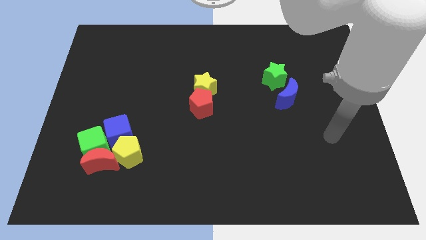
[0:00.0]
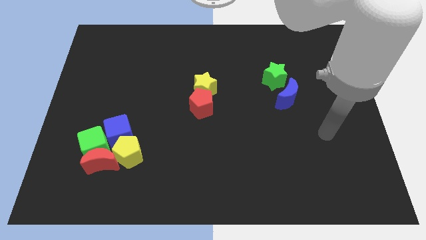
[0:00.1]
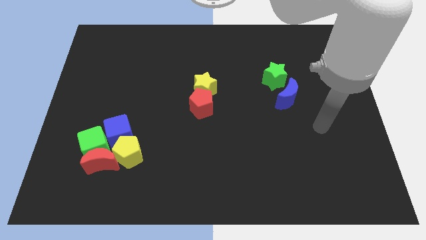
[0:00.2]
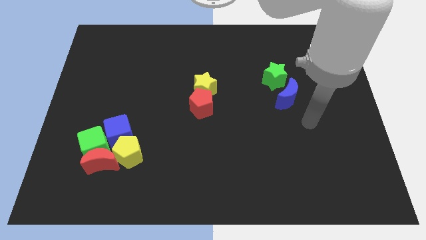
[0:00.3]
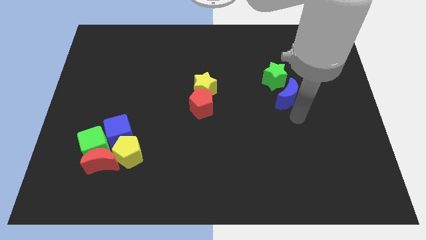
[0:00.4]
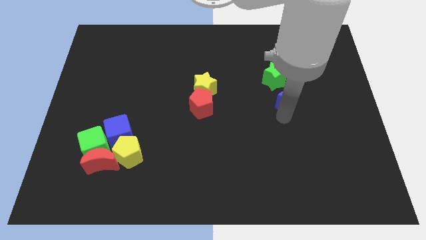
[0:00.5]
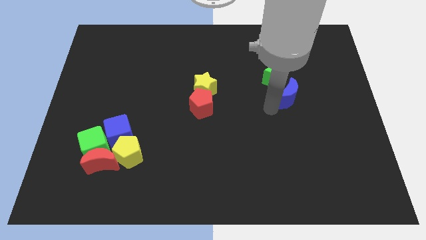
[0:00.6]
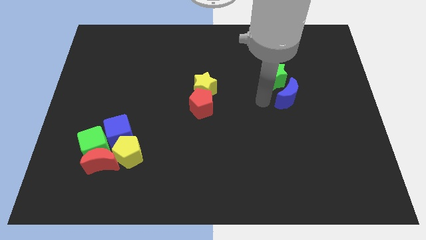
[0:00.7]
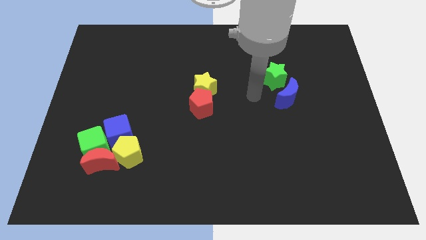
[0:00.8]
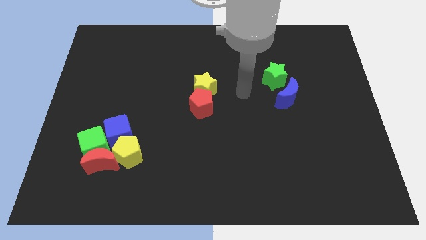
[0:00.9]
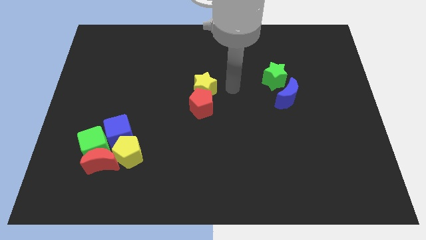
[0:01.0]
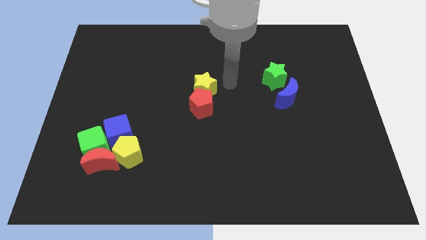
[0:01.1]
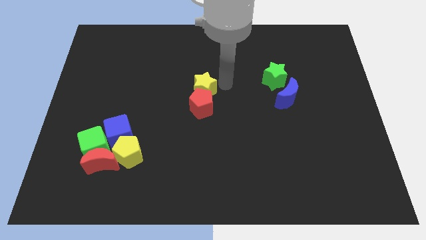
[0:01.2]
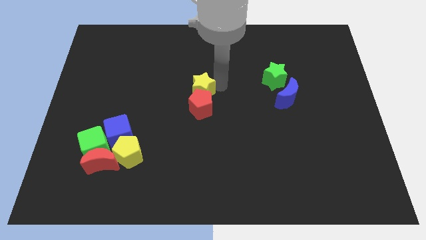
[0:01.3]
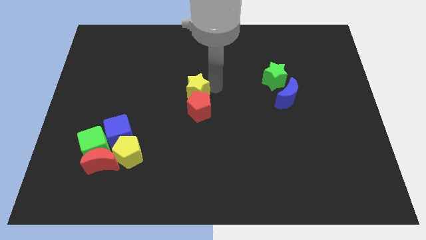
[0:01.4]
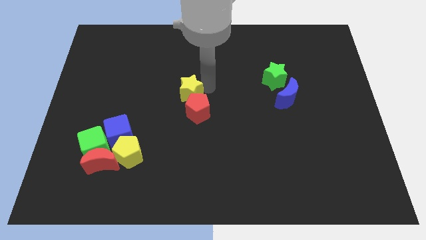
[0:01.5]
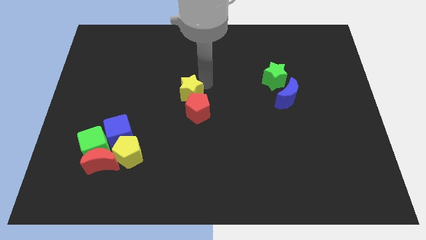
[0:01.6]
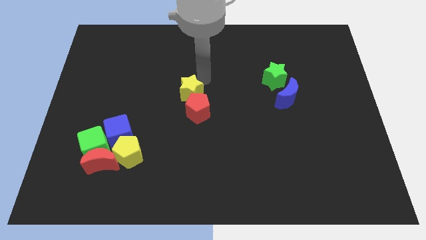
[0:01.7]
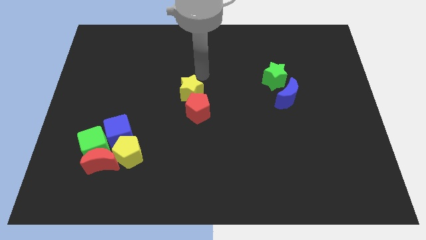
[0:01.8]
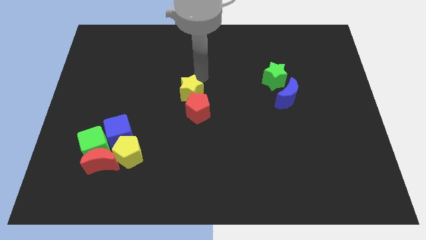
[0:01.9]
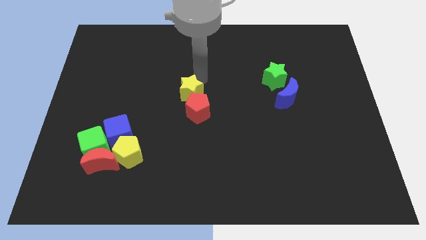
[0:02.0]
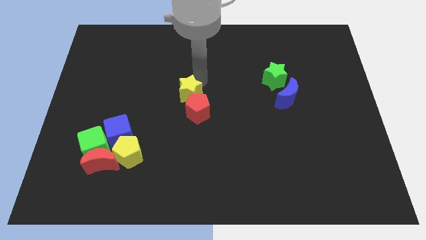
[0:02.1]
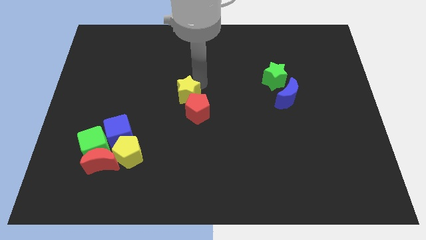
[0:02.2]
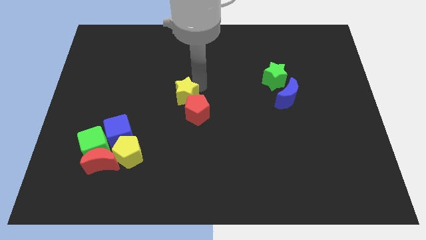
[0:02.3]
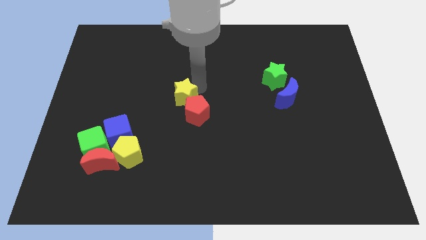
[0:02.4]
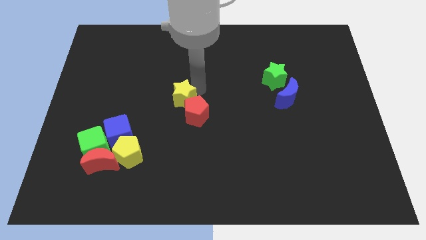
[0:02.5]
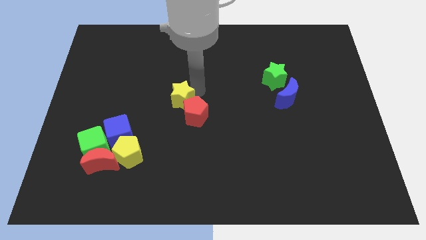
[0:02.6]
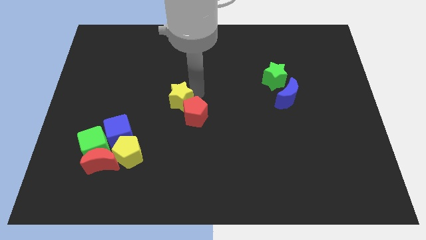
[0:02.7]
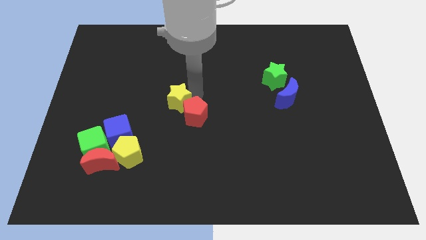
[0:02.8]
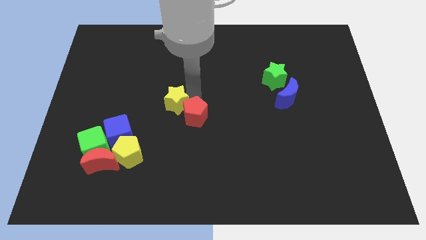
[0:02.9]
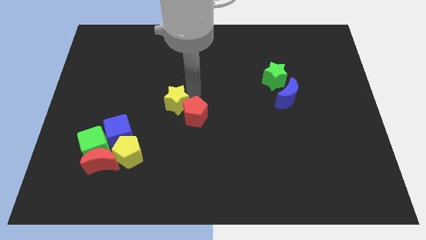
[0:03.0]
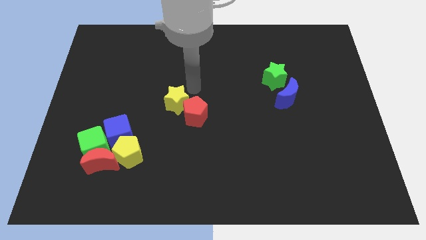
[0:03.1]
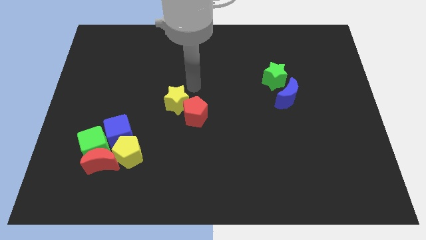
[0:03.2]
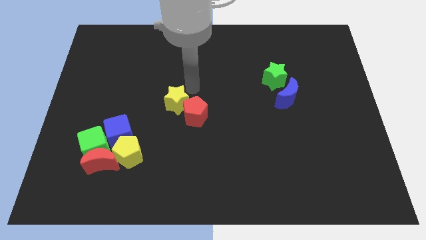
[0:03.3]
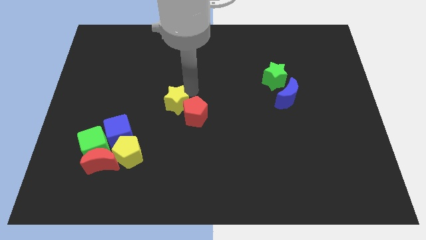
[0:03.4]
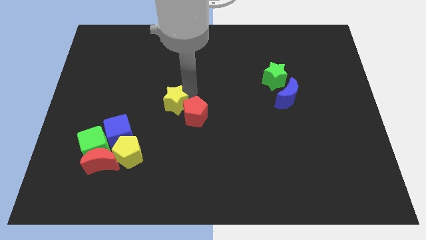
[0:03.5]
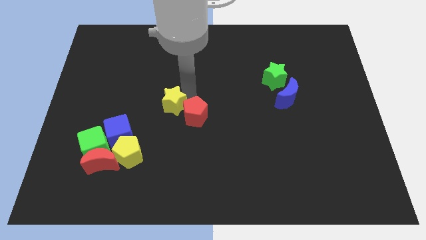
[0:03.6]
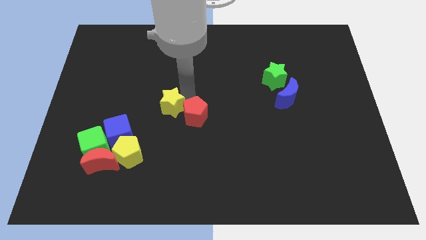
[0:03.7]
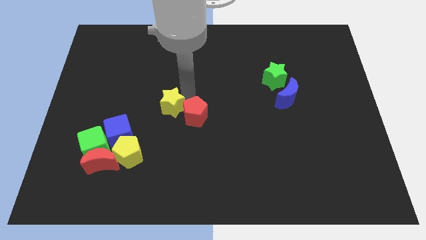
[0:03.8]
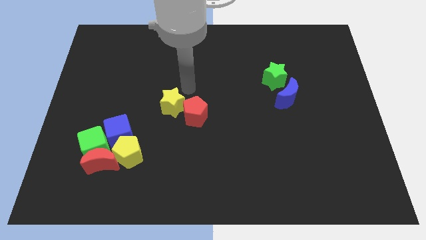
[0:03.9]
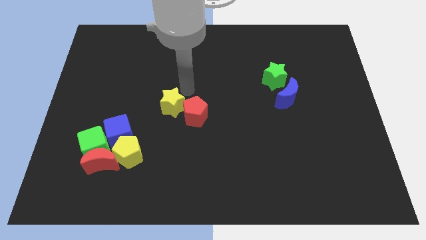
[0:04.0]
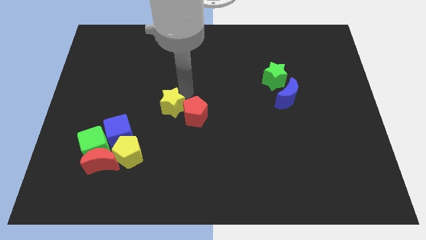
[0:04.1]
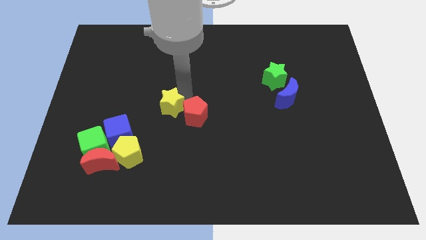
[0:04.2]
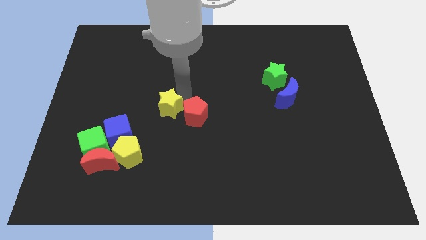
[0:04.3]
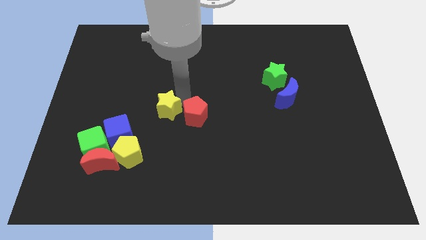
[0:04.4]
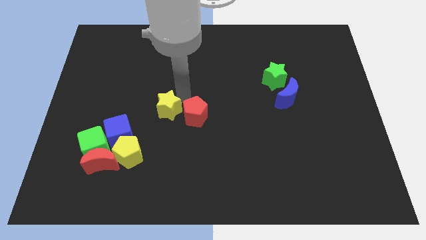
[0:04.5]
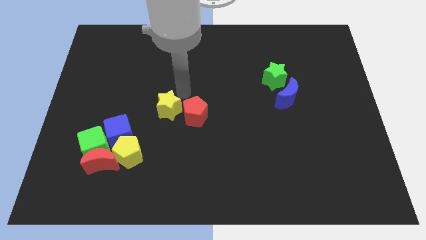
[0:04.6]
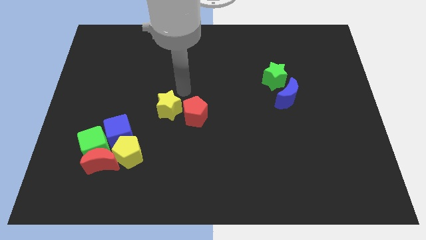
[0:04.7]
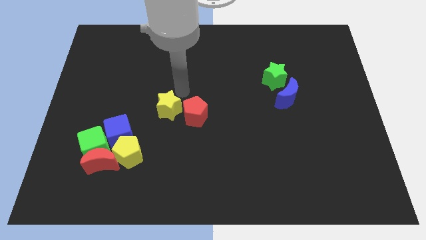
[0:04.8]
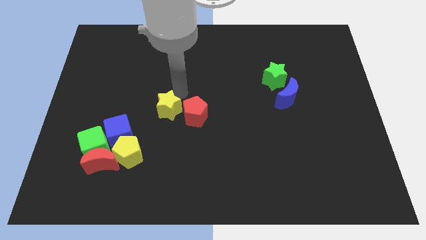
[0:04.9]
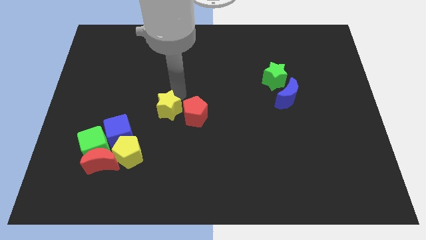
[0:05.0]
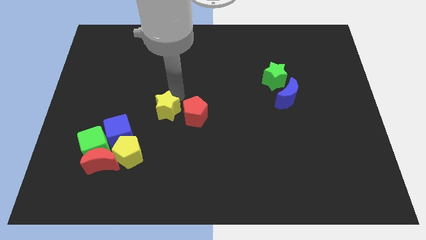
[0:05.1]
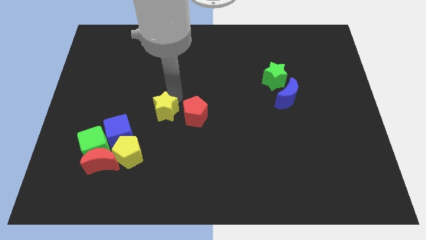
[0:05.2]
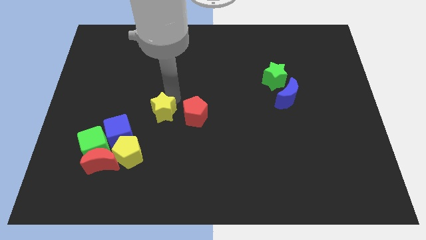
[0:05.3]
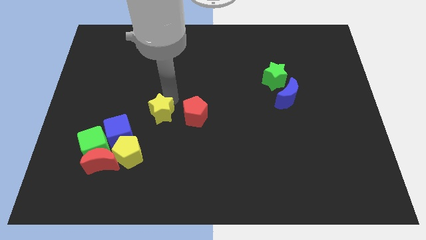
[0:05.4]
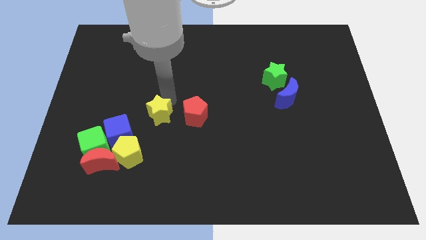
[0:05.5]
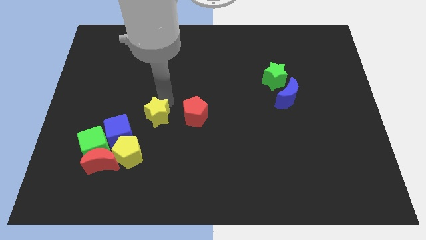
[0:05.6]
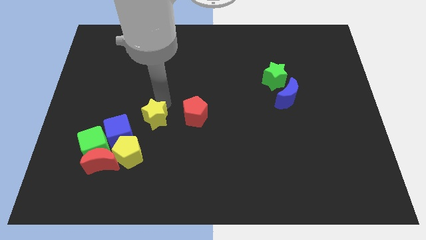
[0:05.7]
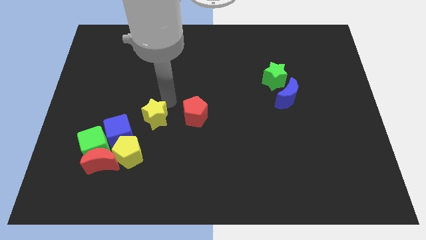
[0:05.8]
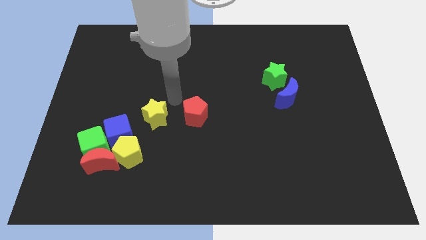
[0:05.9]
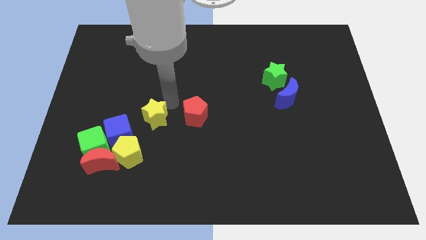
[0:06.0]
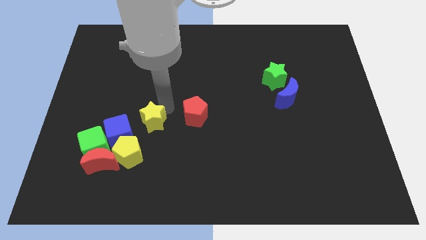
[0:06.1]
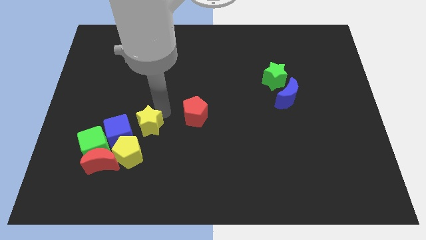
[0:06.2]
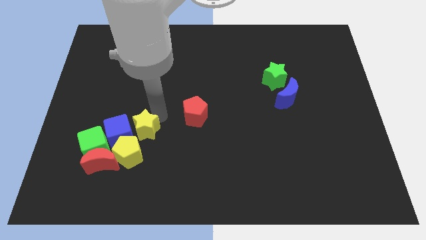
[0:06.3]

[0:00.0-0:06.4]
push the yellow star close to the blue cube
